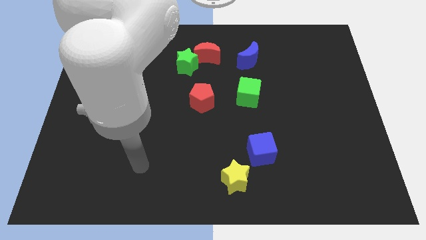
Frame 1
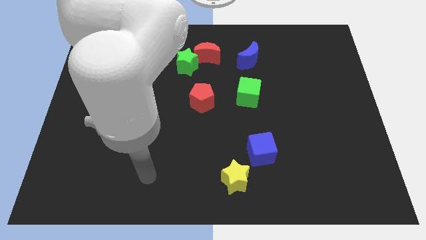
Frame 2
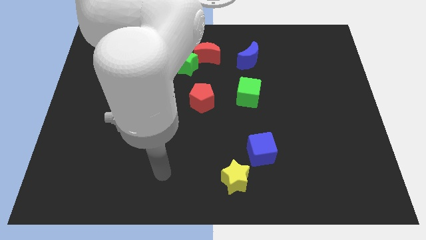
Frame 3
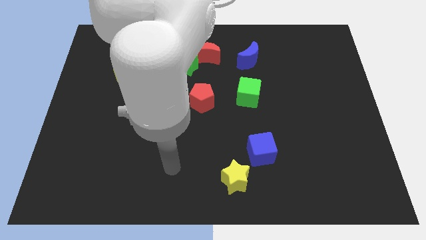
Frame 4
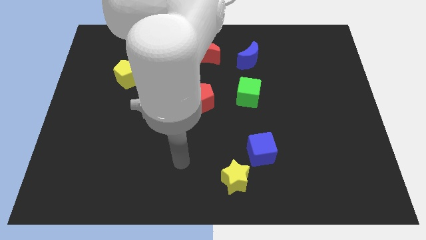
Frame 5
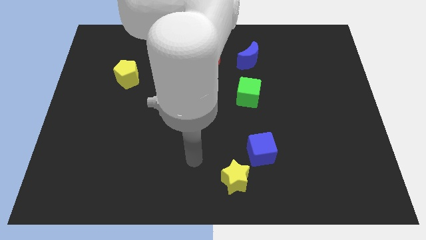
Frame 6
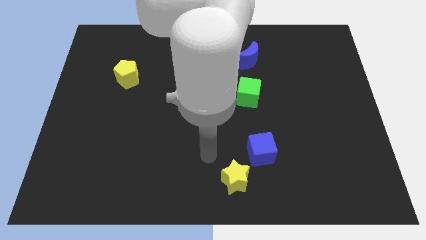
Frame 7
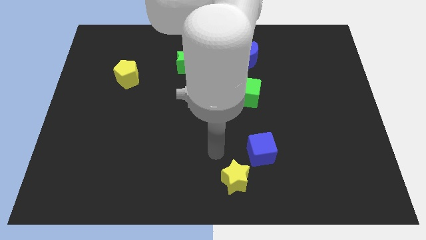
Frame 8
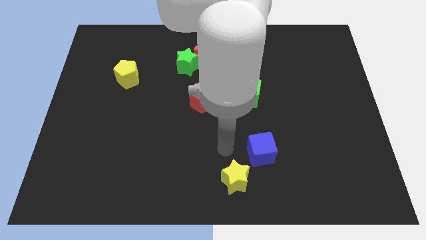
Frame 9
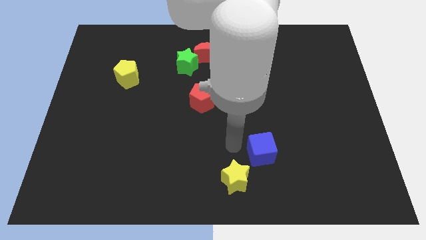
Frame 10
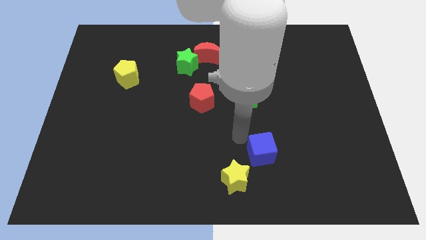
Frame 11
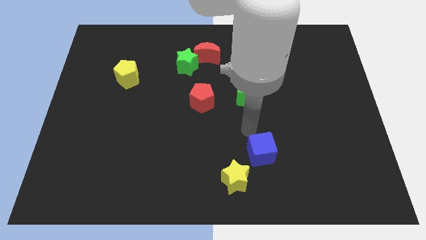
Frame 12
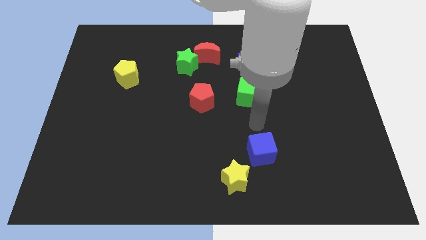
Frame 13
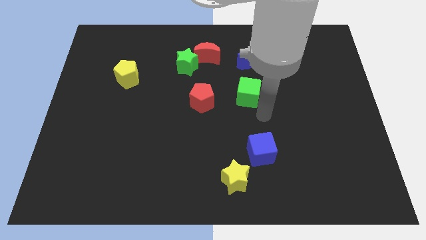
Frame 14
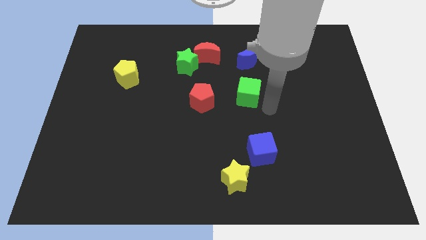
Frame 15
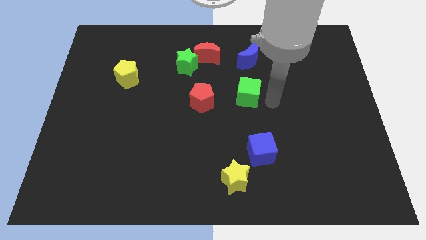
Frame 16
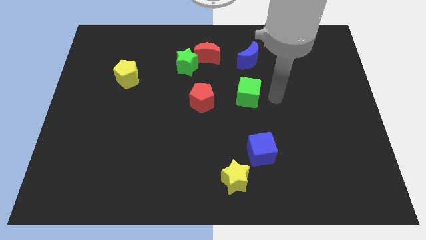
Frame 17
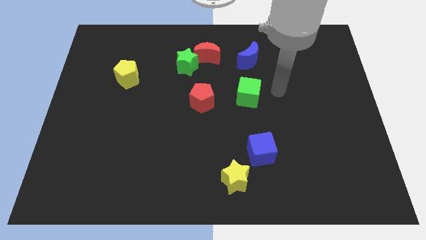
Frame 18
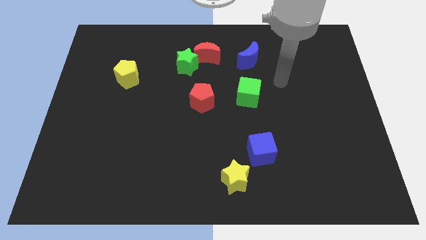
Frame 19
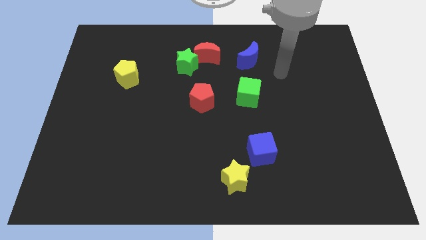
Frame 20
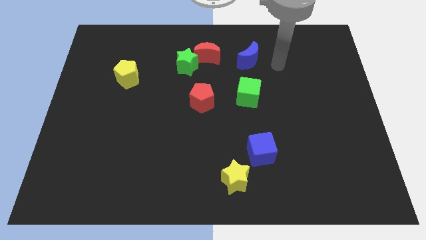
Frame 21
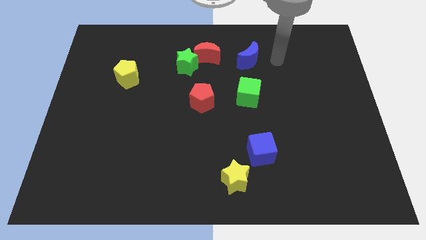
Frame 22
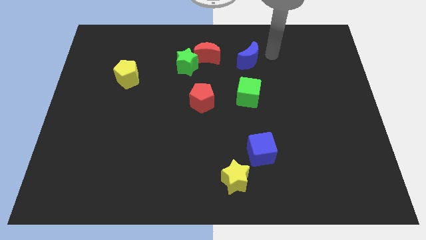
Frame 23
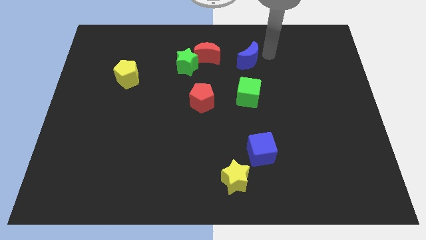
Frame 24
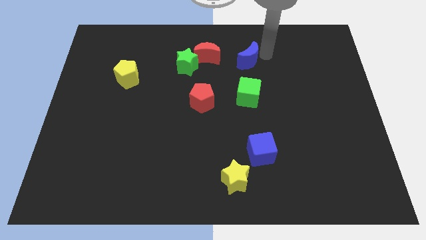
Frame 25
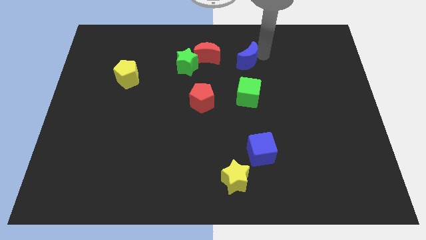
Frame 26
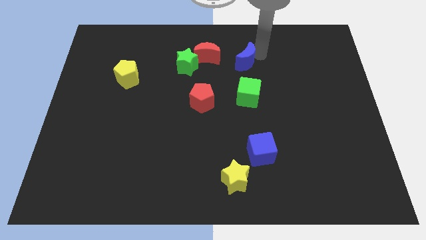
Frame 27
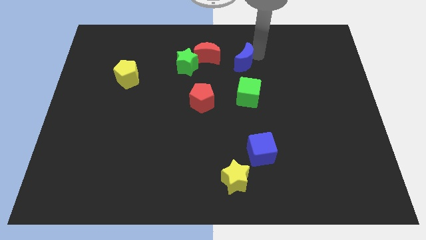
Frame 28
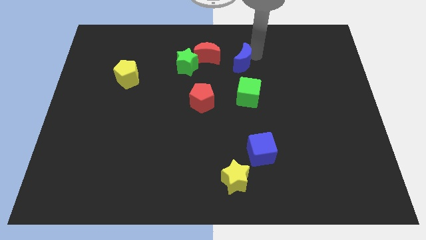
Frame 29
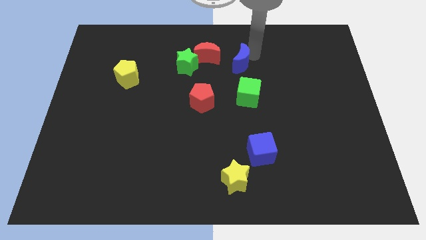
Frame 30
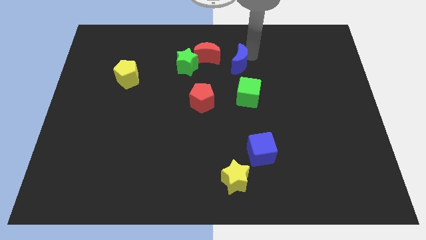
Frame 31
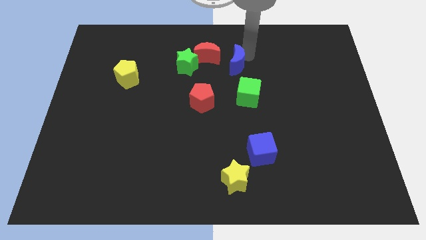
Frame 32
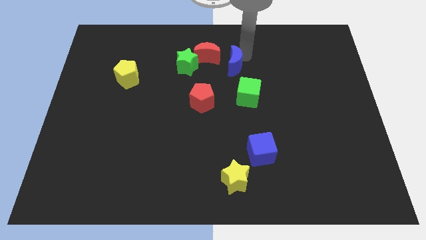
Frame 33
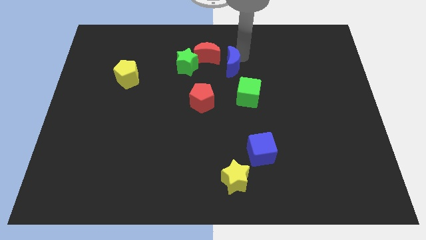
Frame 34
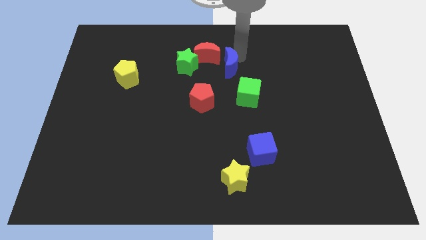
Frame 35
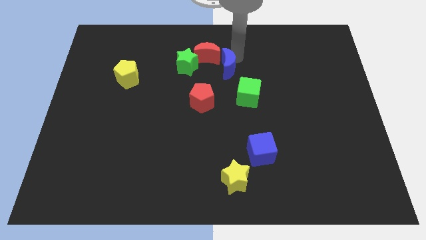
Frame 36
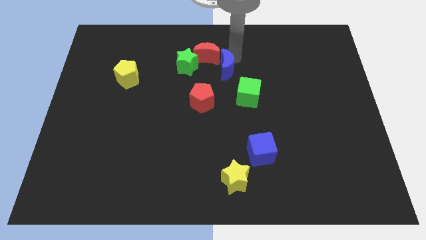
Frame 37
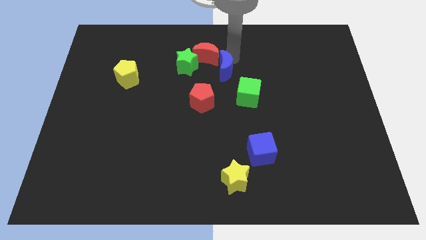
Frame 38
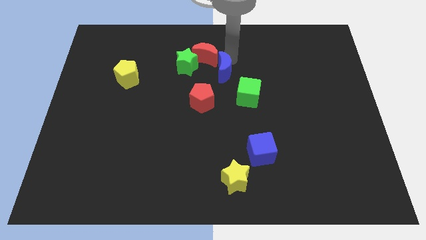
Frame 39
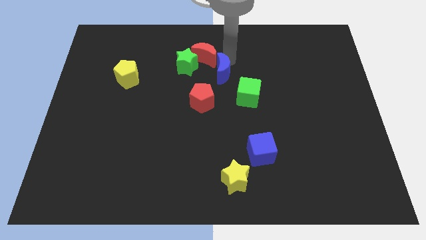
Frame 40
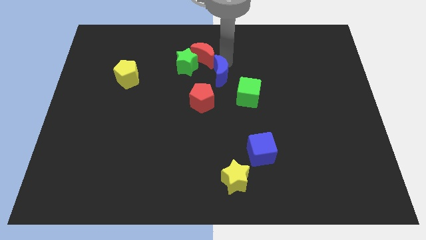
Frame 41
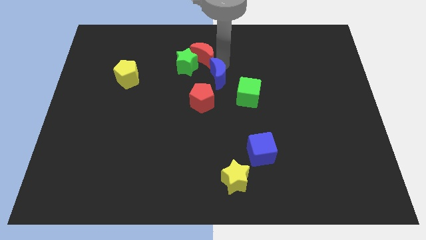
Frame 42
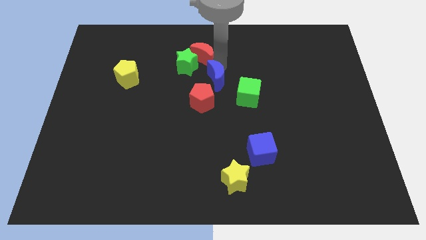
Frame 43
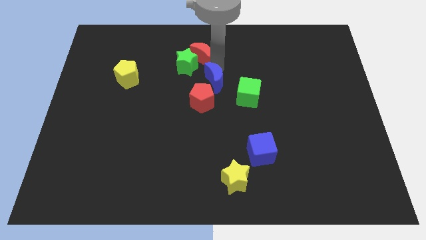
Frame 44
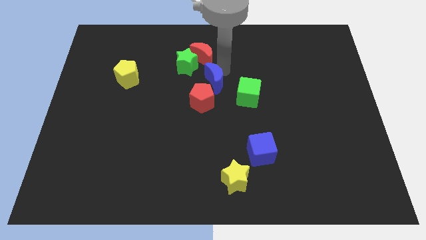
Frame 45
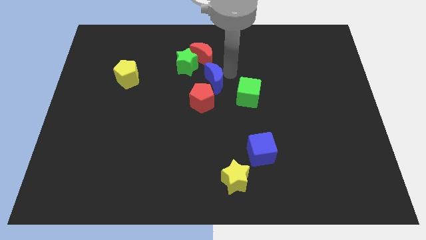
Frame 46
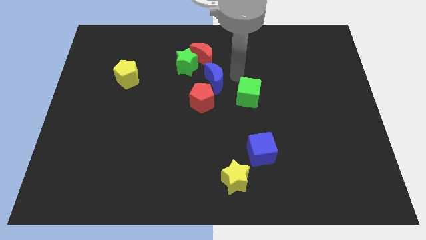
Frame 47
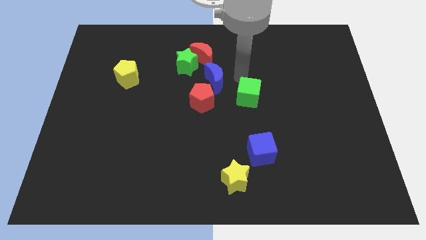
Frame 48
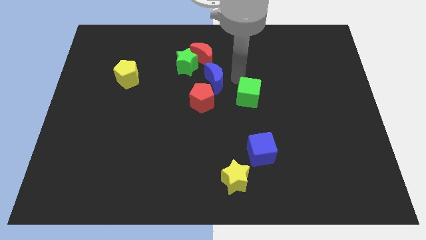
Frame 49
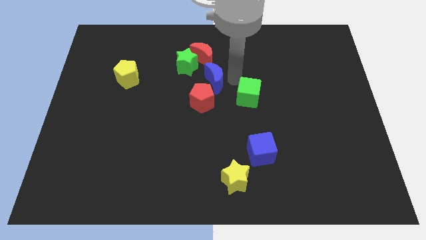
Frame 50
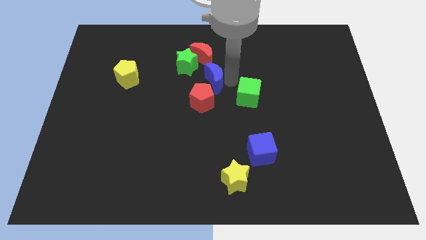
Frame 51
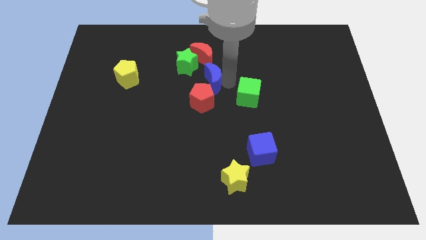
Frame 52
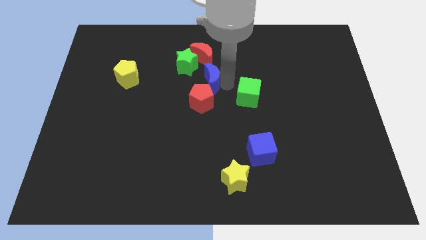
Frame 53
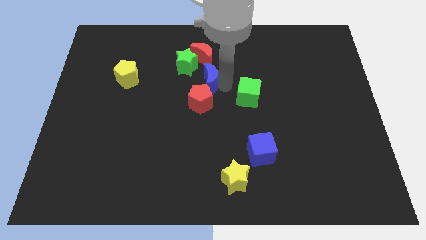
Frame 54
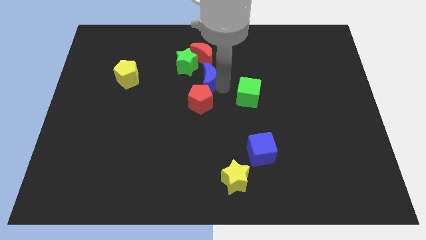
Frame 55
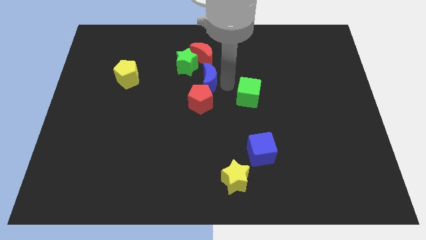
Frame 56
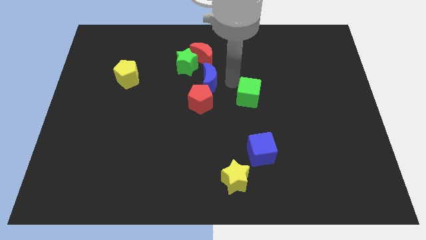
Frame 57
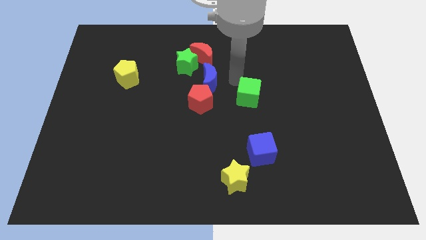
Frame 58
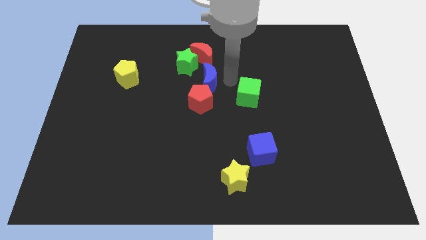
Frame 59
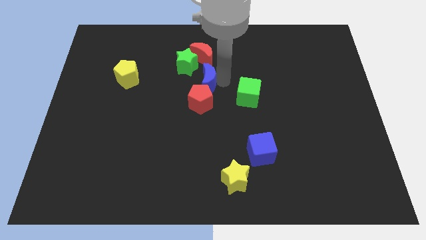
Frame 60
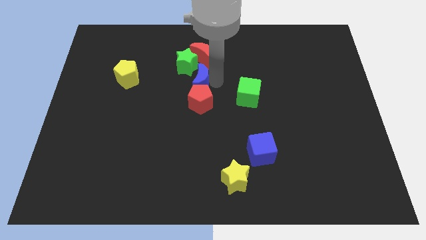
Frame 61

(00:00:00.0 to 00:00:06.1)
push the blue moon diagonally up and to the left of the red pentagon
